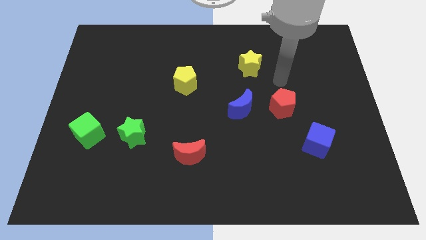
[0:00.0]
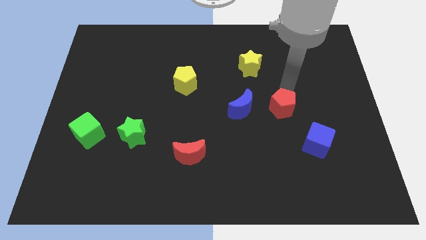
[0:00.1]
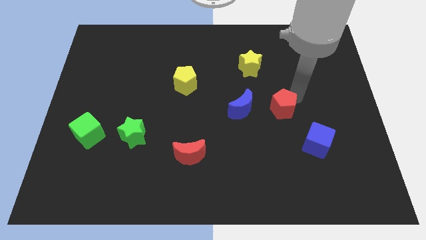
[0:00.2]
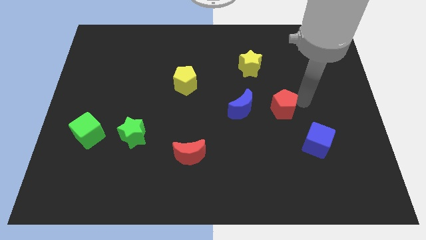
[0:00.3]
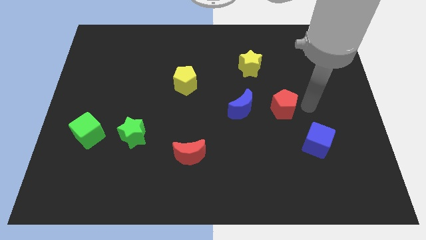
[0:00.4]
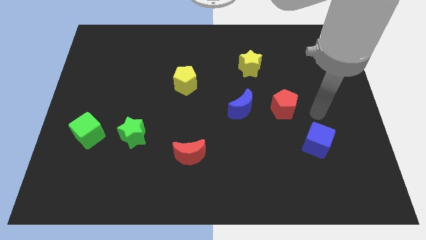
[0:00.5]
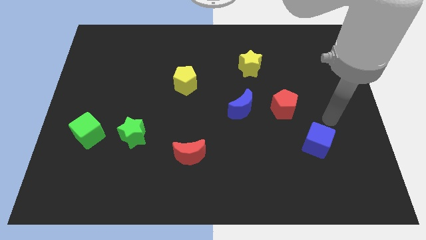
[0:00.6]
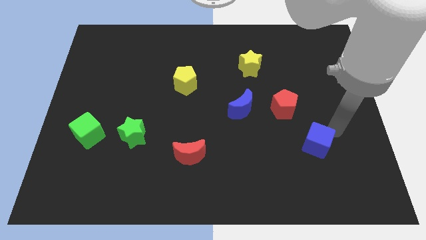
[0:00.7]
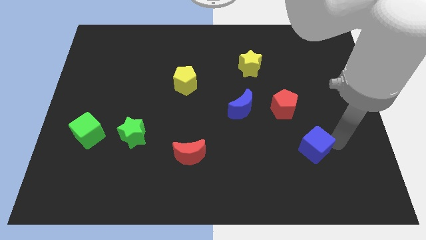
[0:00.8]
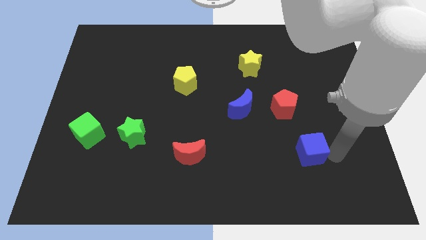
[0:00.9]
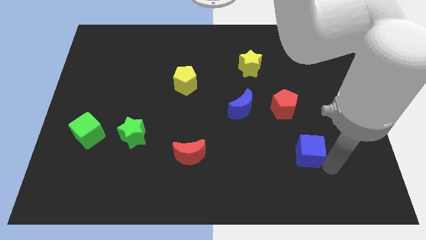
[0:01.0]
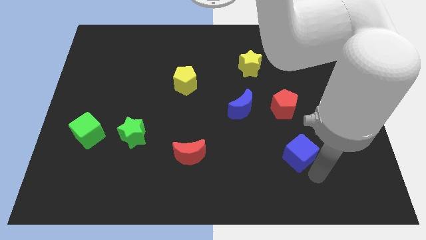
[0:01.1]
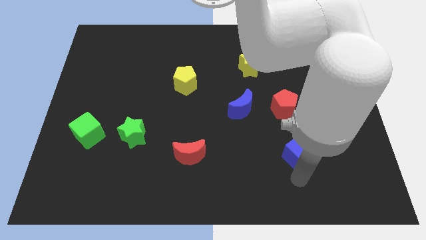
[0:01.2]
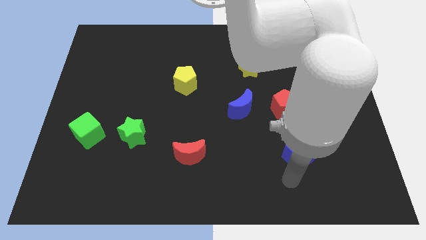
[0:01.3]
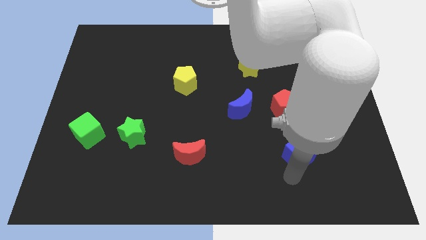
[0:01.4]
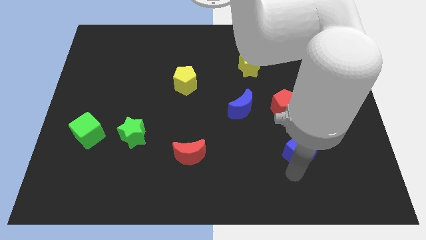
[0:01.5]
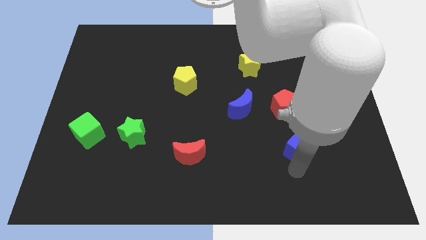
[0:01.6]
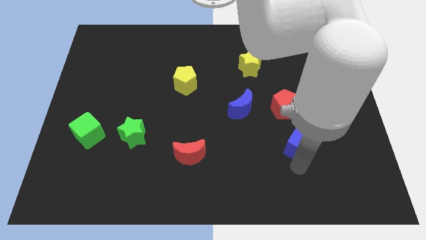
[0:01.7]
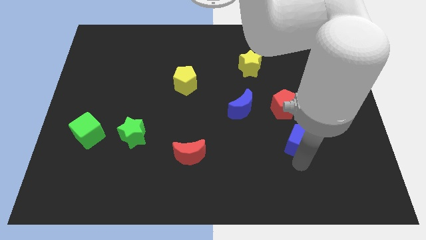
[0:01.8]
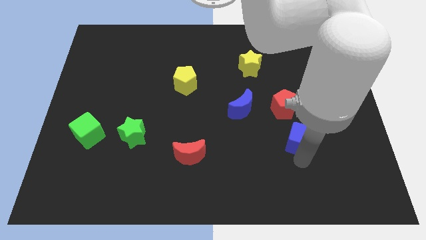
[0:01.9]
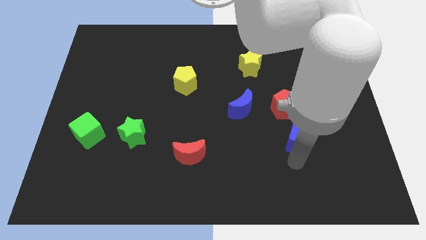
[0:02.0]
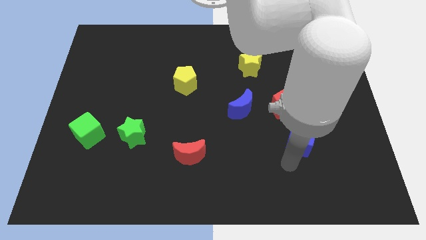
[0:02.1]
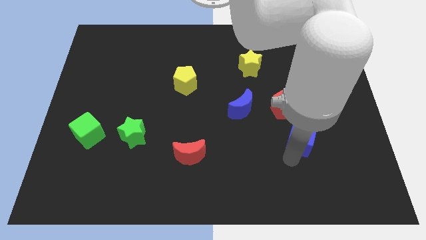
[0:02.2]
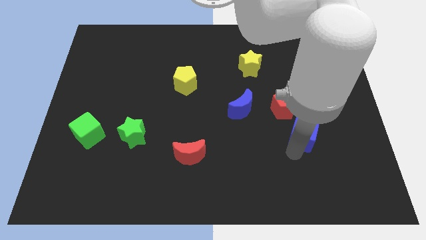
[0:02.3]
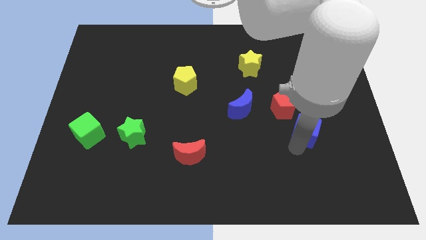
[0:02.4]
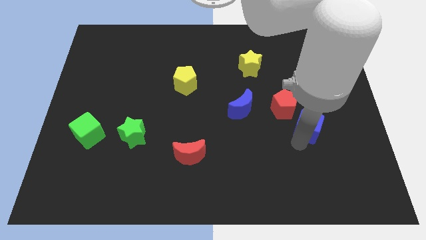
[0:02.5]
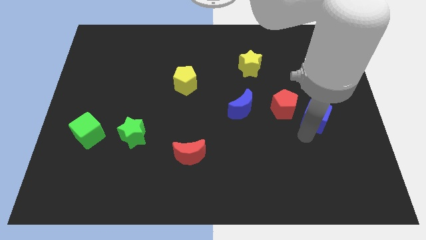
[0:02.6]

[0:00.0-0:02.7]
push the blue cube upwards somewhat

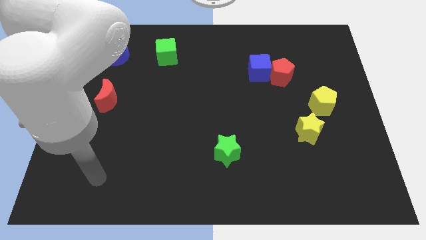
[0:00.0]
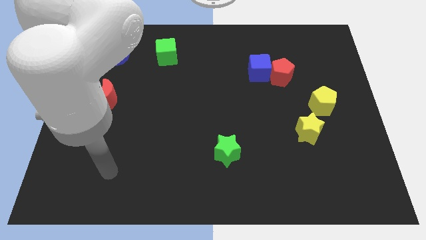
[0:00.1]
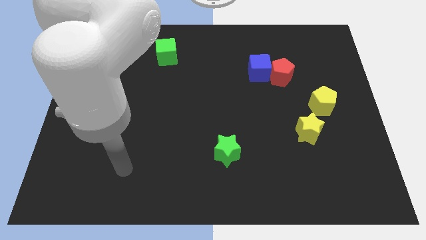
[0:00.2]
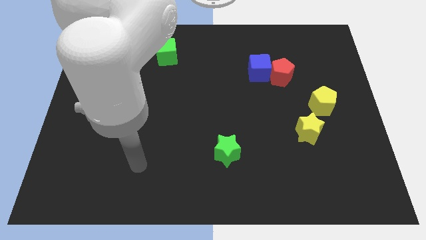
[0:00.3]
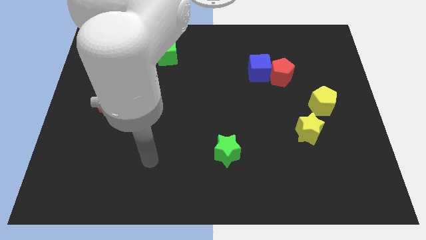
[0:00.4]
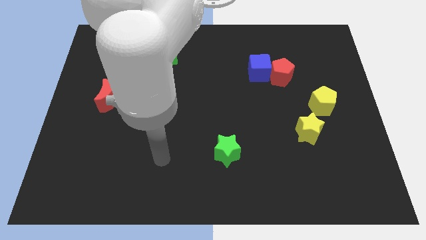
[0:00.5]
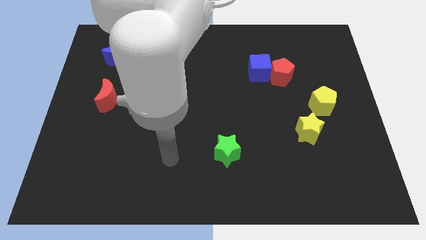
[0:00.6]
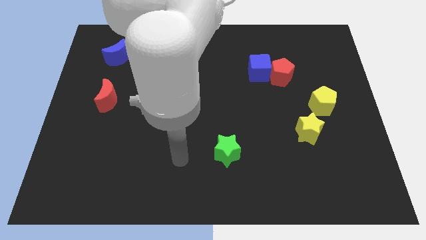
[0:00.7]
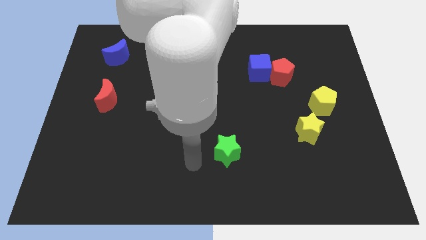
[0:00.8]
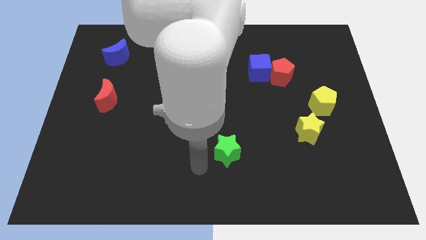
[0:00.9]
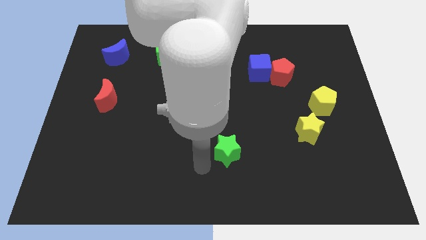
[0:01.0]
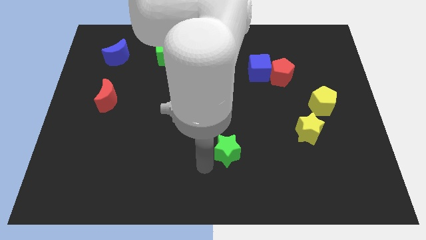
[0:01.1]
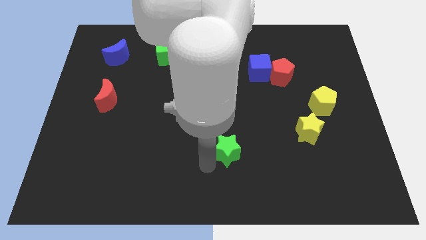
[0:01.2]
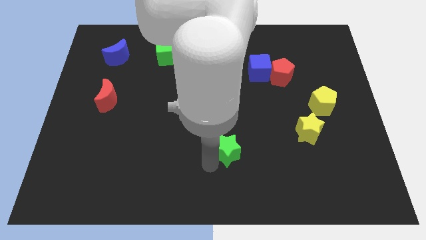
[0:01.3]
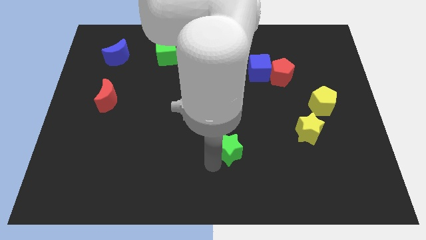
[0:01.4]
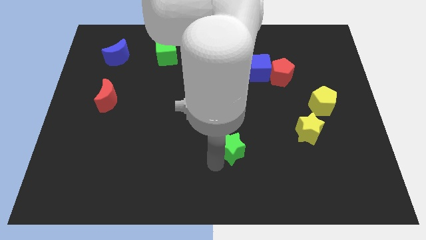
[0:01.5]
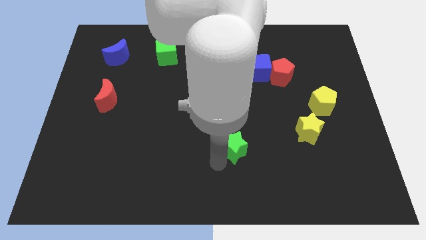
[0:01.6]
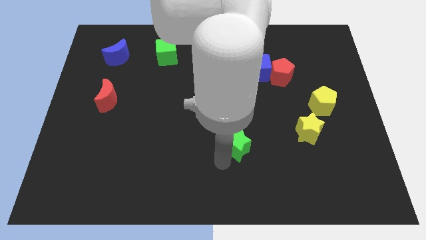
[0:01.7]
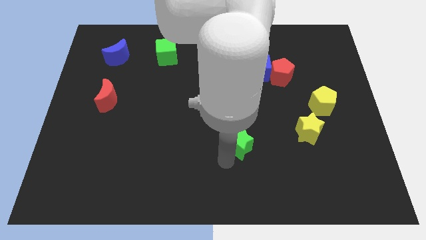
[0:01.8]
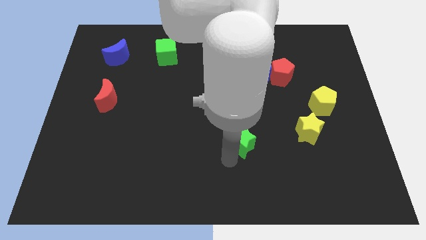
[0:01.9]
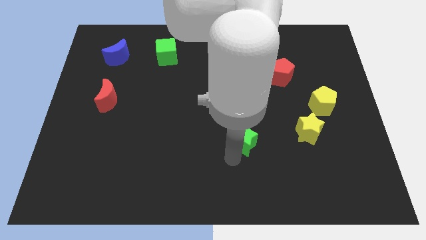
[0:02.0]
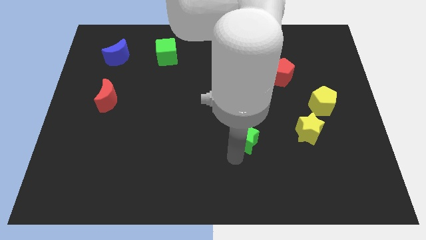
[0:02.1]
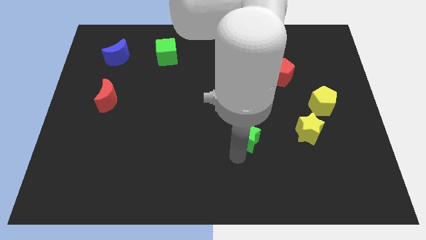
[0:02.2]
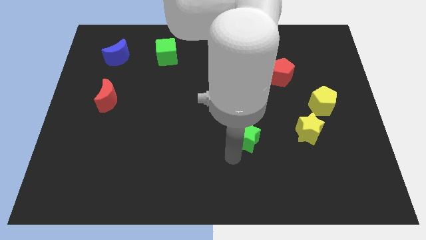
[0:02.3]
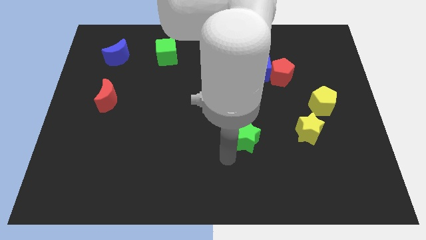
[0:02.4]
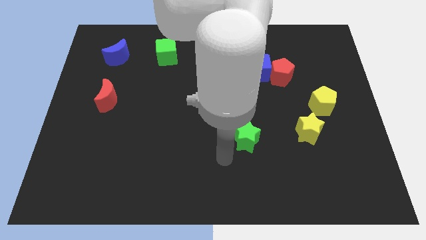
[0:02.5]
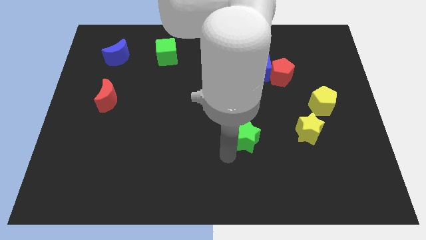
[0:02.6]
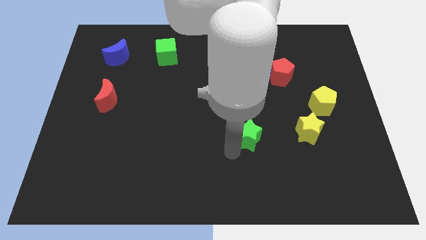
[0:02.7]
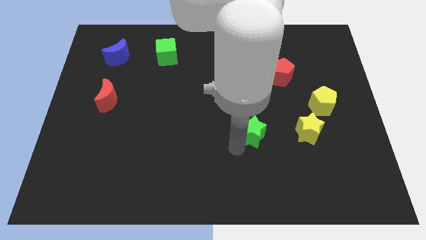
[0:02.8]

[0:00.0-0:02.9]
slide the green star upwards and to the right a bit

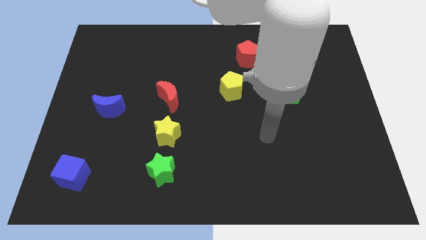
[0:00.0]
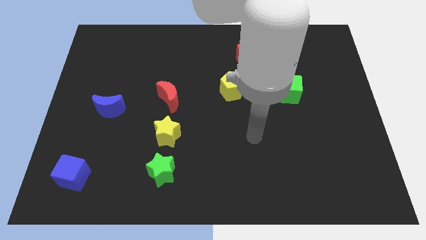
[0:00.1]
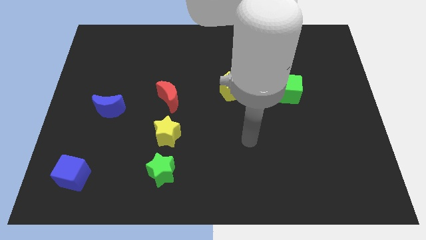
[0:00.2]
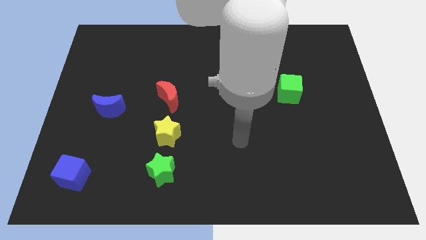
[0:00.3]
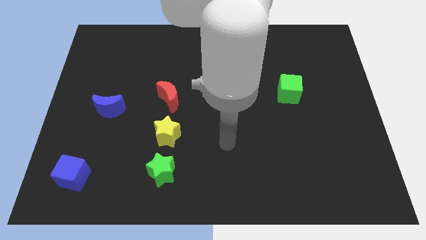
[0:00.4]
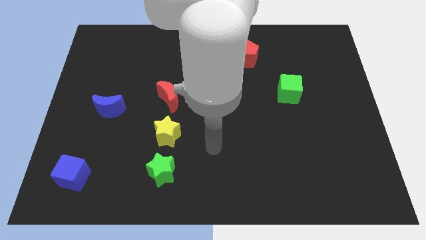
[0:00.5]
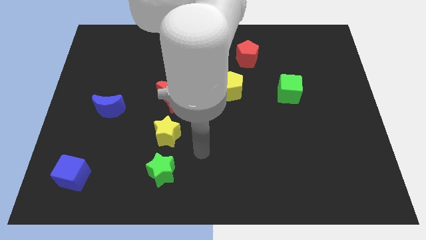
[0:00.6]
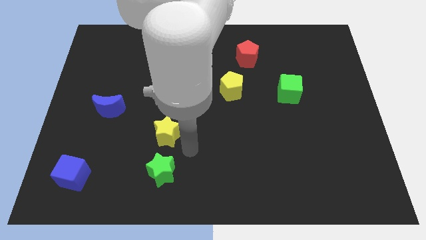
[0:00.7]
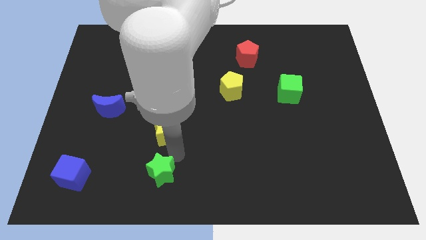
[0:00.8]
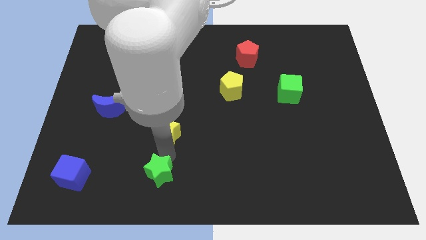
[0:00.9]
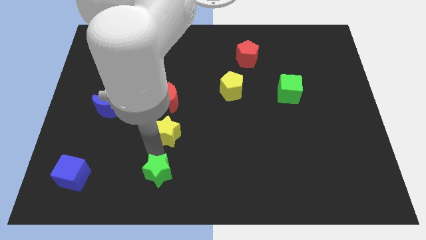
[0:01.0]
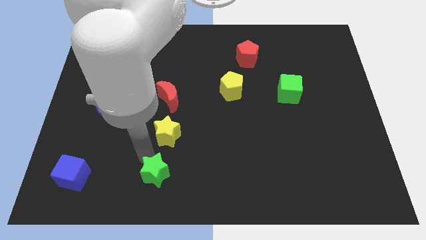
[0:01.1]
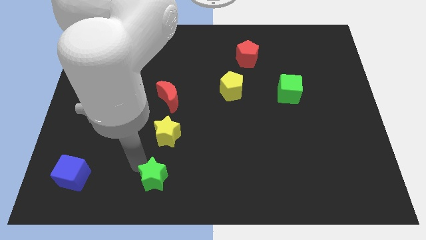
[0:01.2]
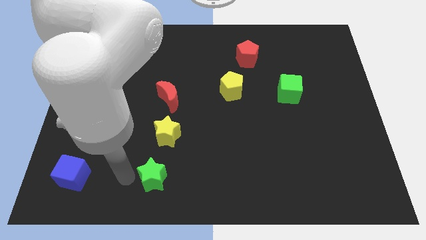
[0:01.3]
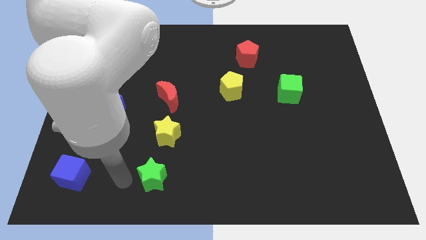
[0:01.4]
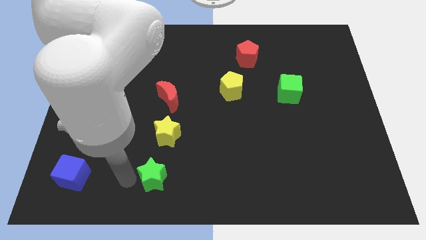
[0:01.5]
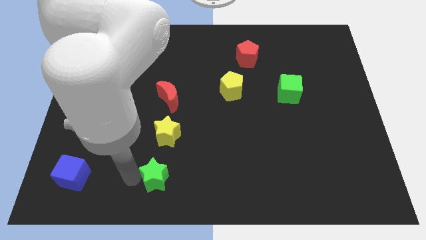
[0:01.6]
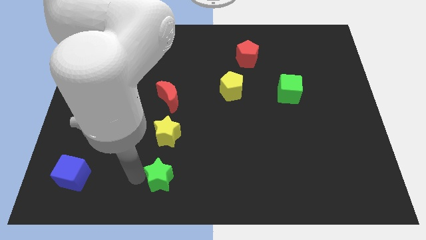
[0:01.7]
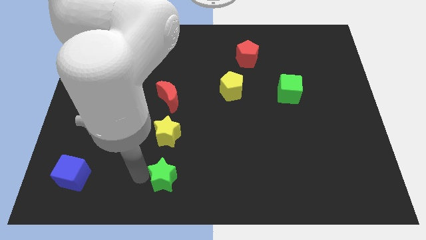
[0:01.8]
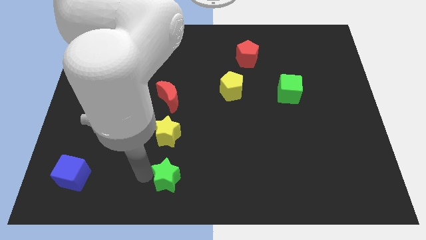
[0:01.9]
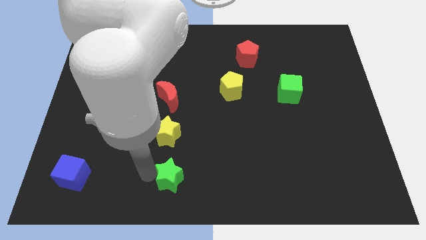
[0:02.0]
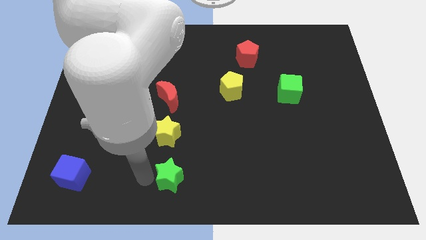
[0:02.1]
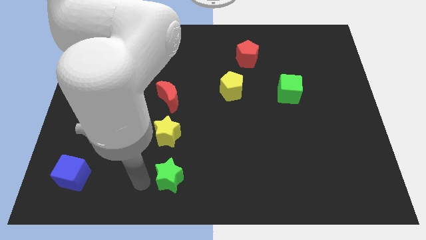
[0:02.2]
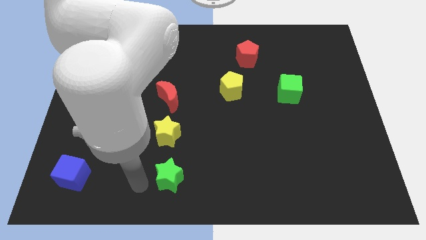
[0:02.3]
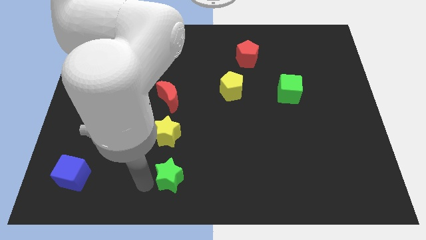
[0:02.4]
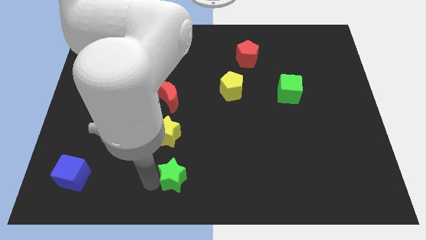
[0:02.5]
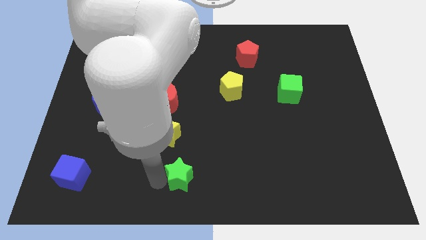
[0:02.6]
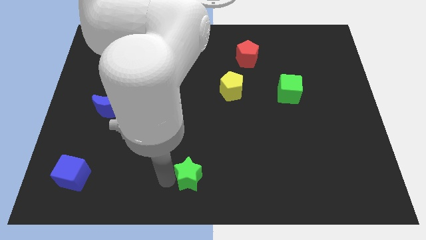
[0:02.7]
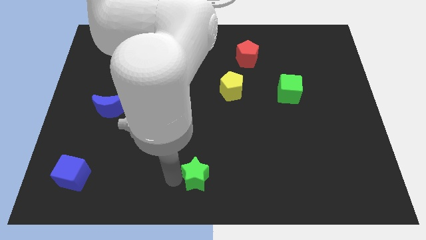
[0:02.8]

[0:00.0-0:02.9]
slightly slide the green star right

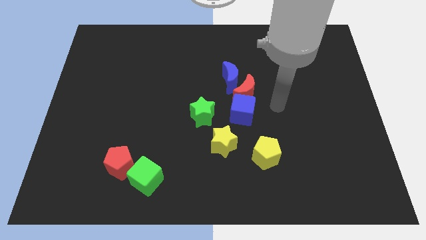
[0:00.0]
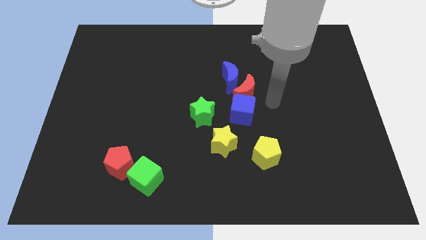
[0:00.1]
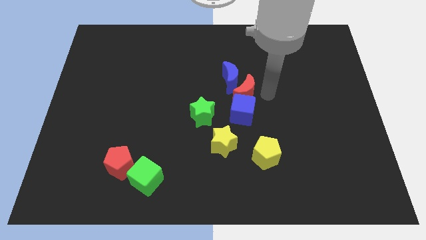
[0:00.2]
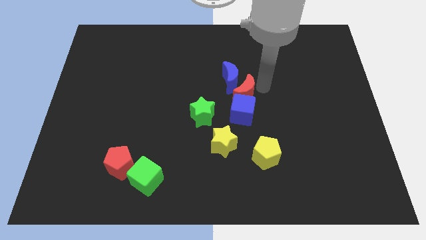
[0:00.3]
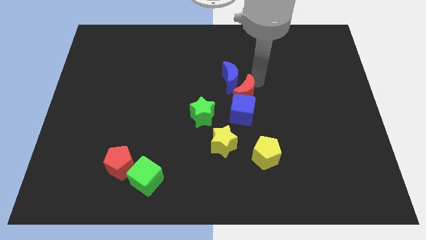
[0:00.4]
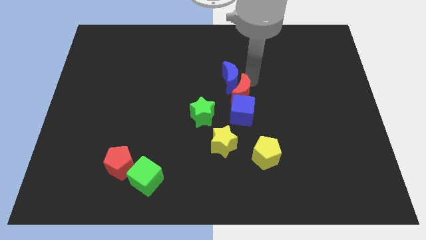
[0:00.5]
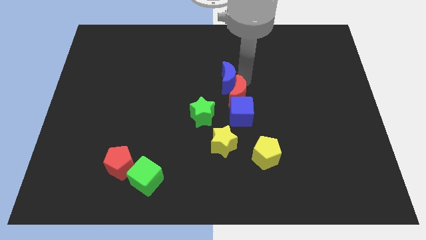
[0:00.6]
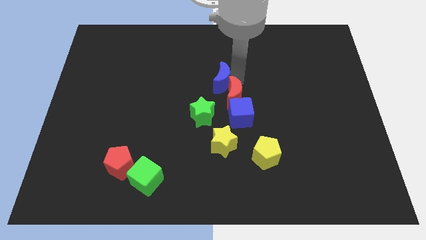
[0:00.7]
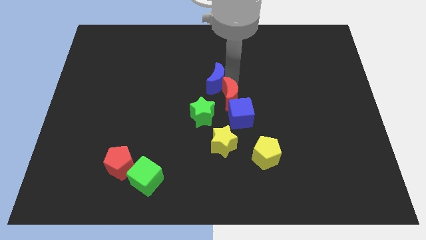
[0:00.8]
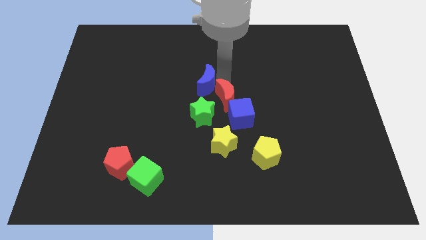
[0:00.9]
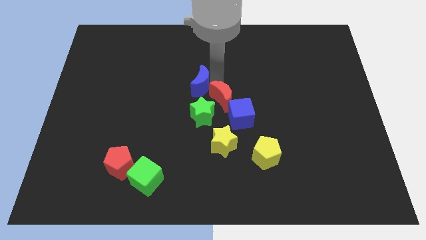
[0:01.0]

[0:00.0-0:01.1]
move the blue moon a little bit left
